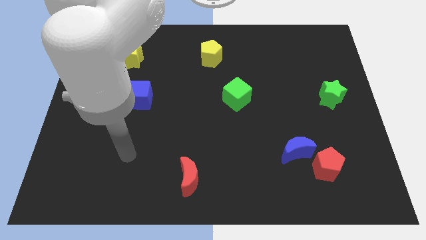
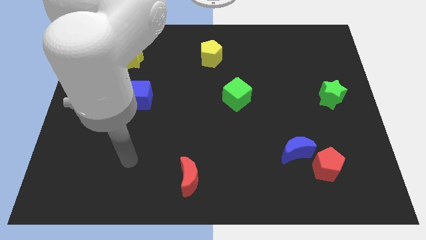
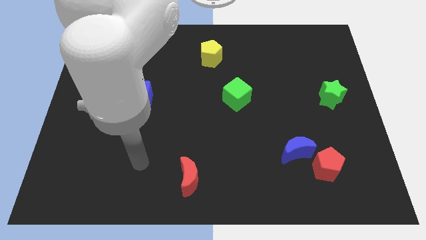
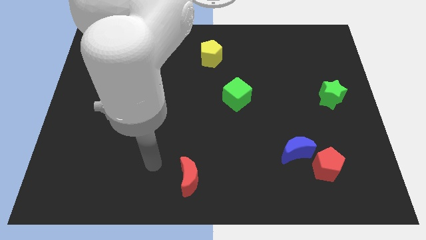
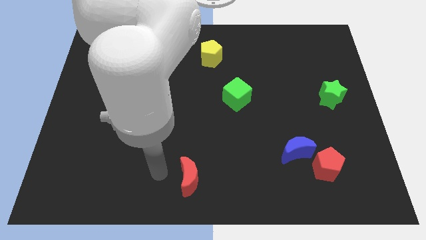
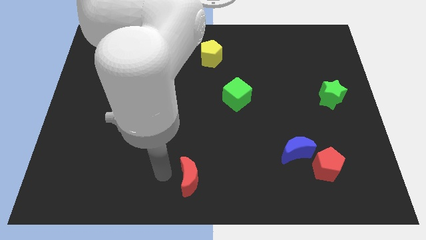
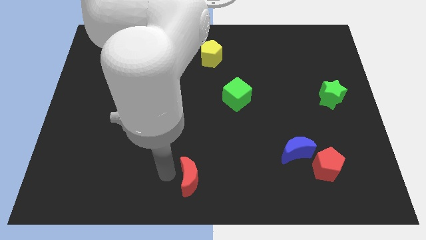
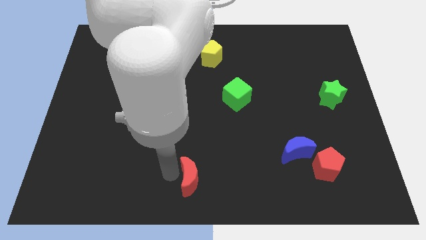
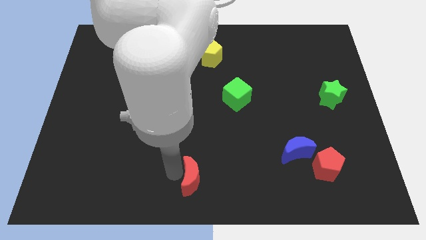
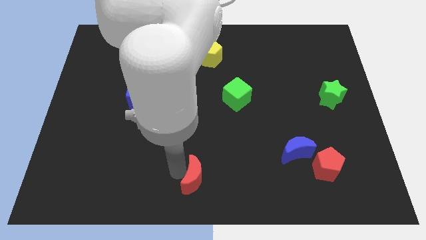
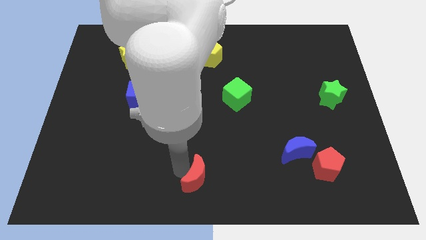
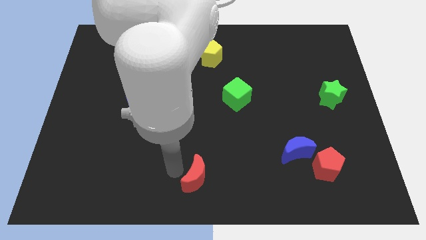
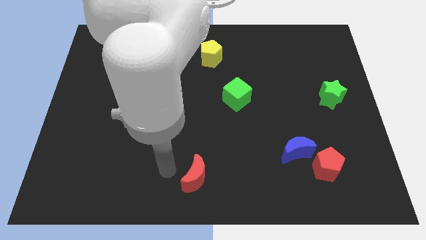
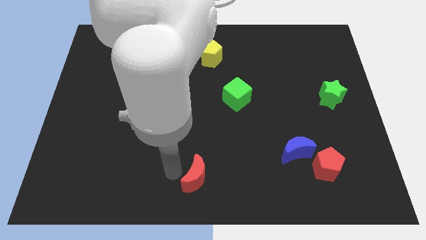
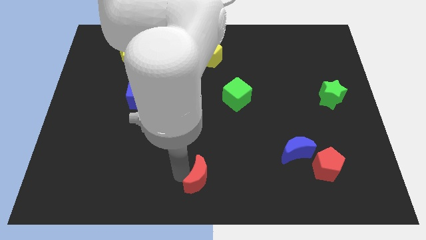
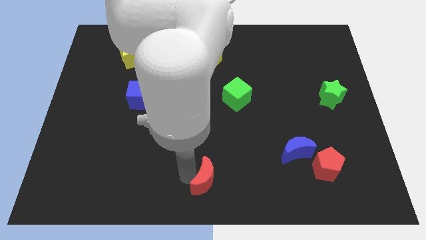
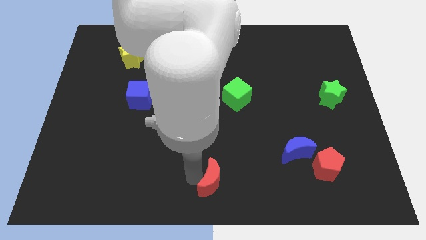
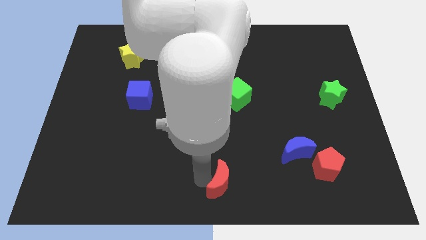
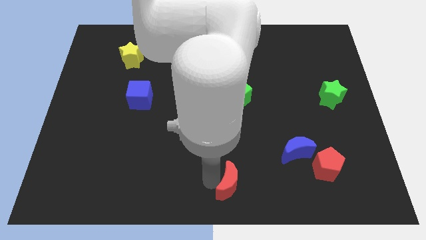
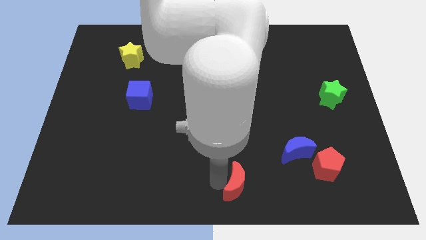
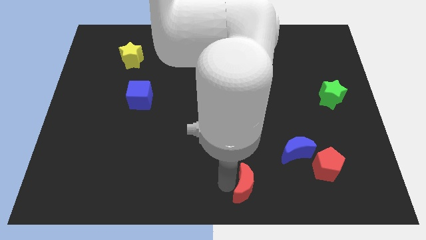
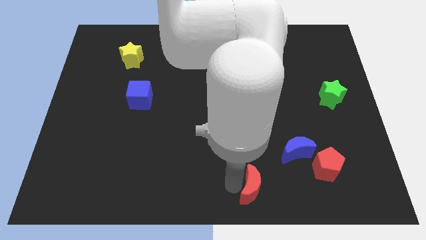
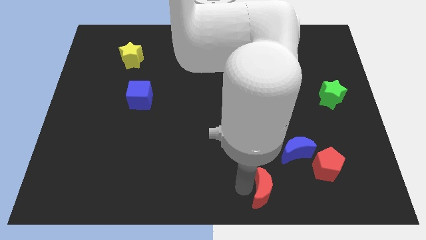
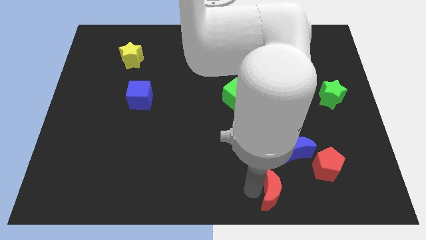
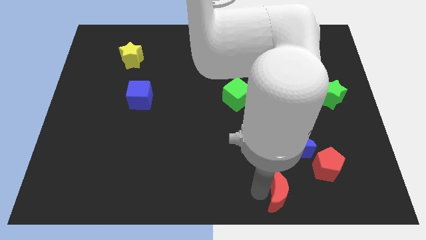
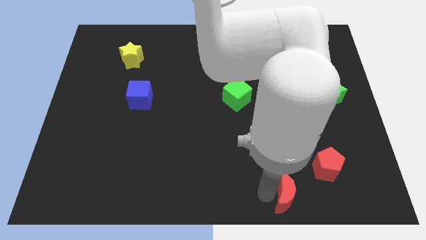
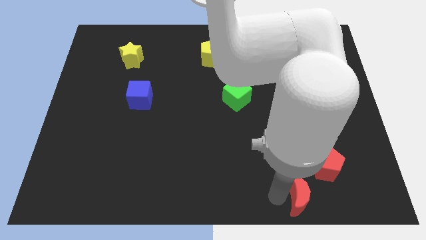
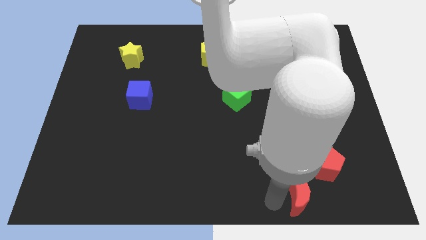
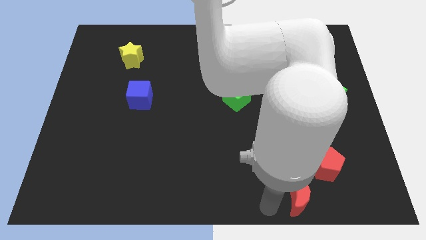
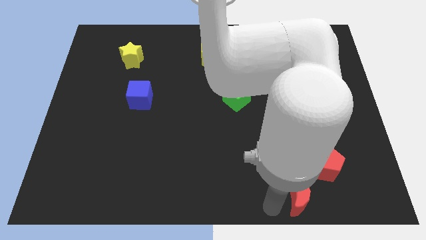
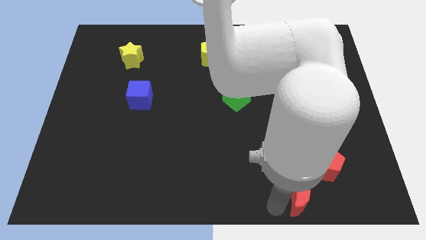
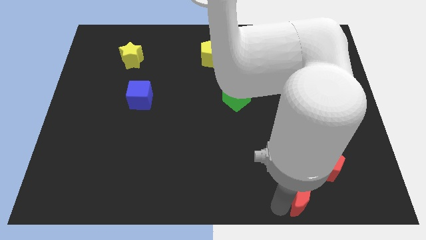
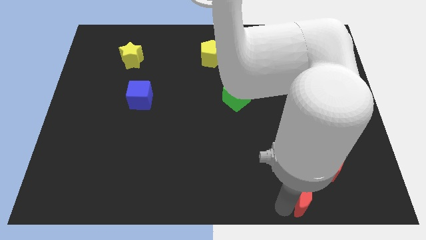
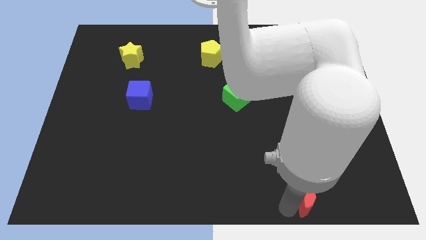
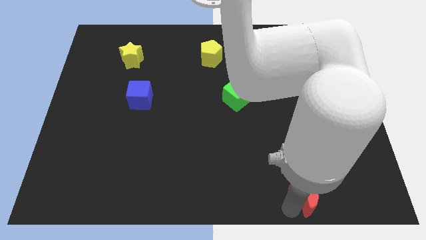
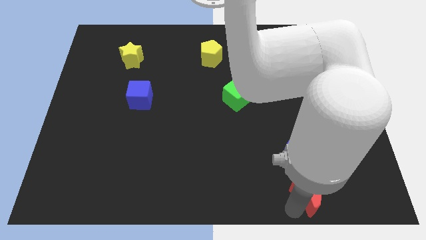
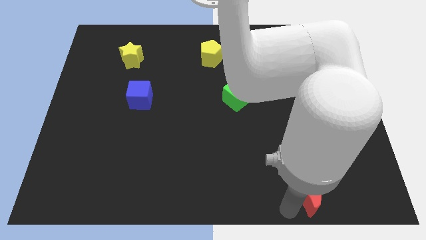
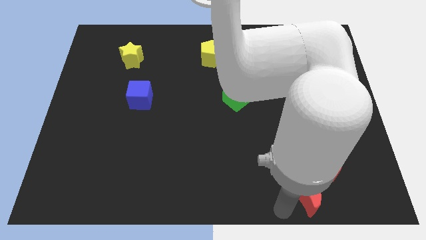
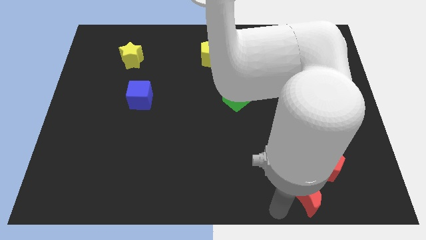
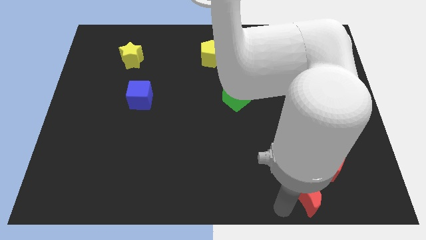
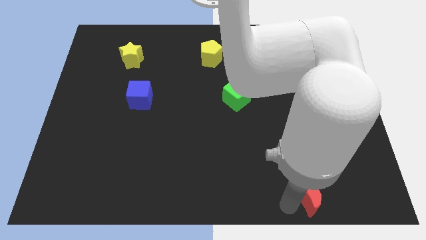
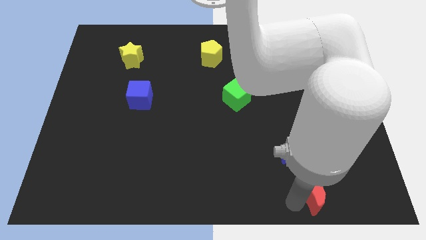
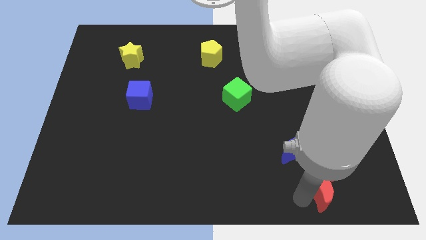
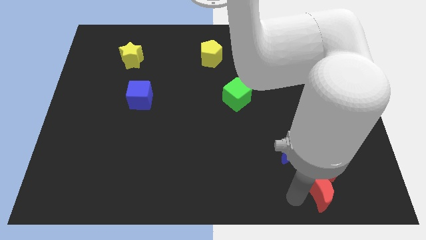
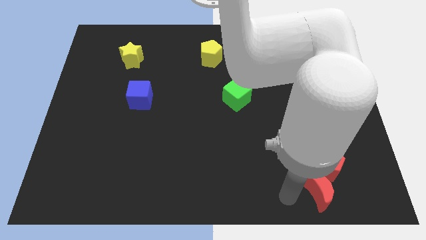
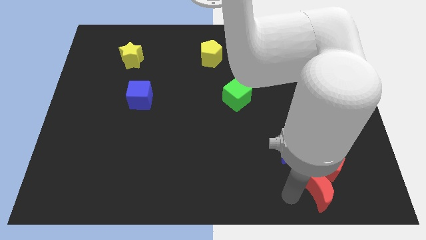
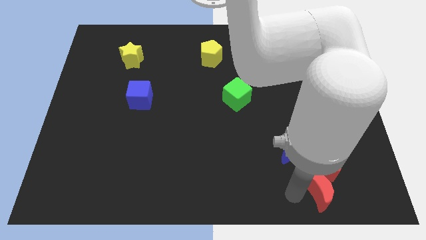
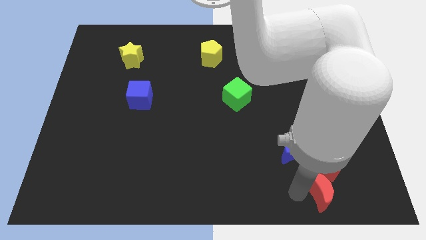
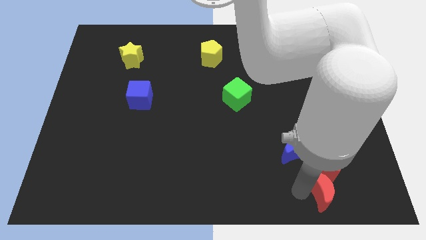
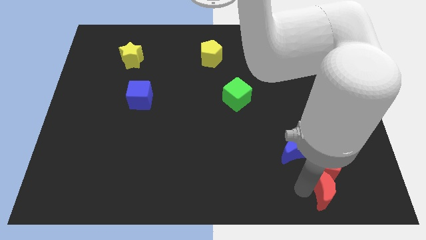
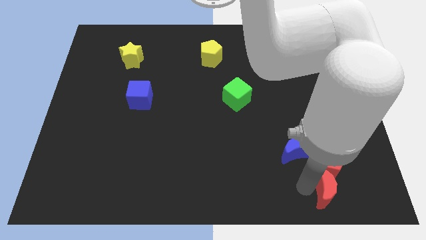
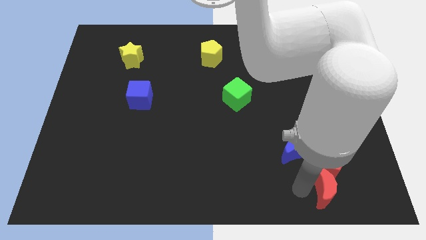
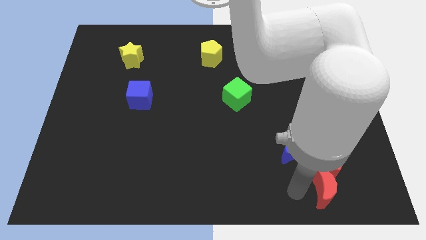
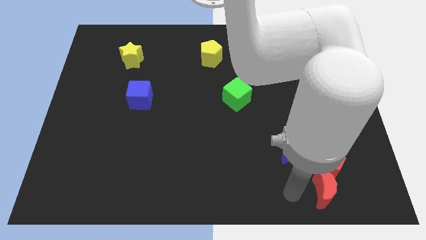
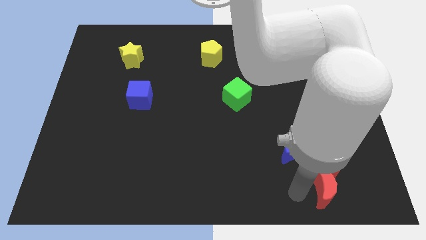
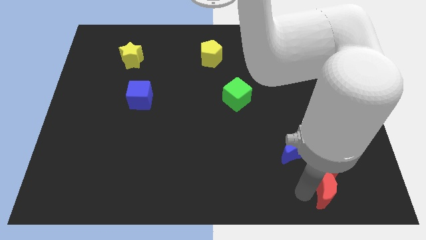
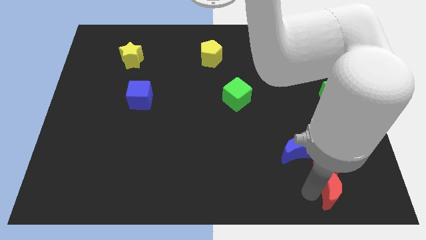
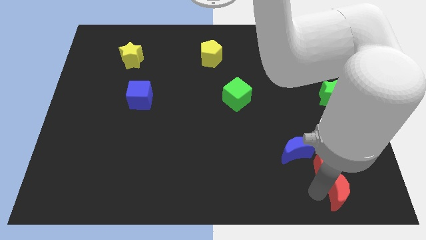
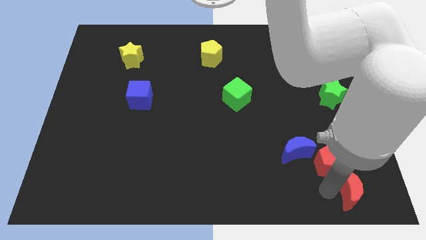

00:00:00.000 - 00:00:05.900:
move the red moon to the lower right corner
